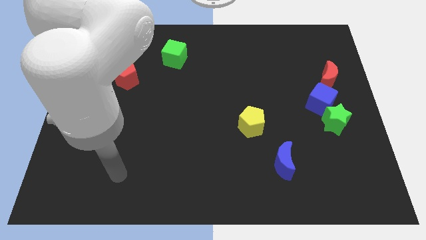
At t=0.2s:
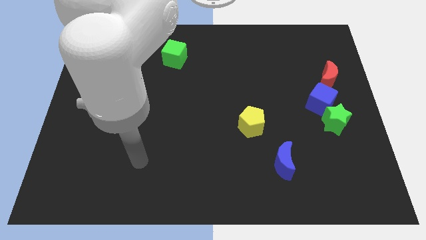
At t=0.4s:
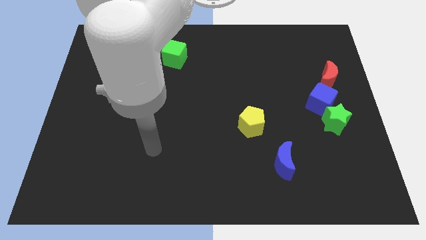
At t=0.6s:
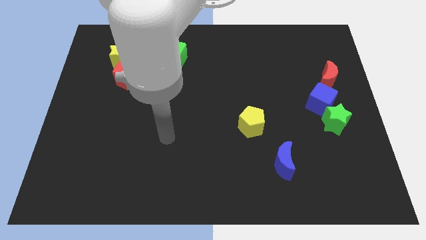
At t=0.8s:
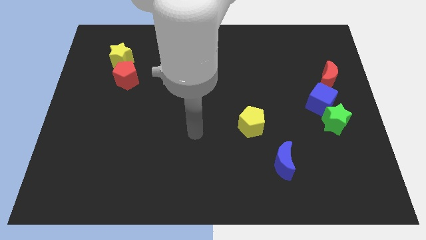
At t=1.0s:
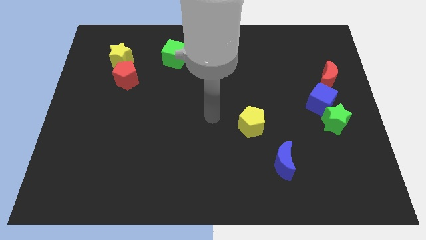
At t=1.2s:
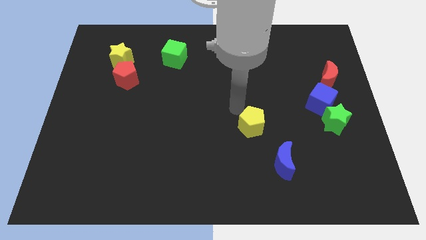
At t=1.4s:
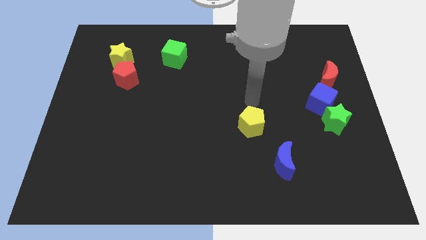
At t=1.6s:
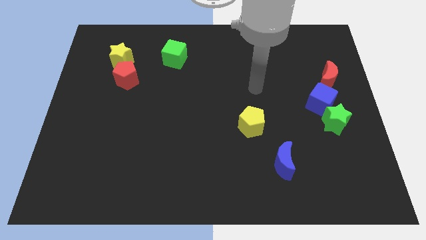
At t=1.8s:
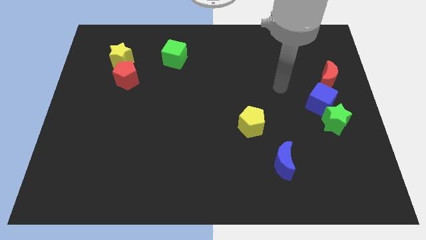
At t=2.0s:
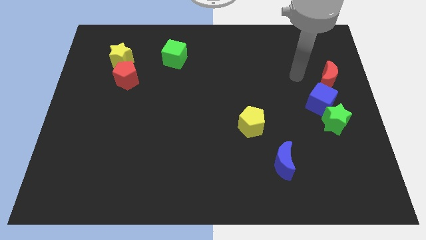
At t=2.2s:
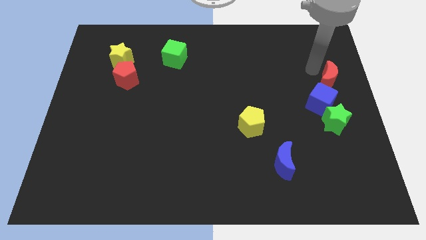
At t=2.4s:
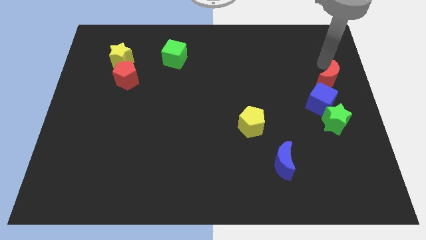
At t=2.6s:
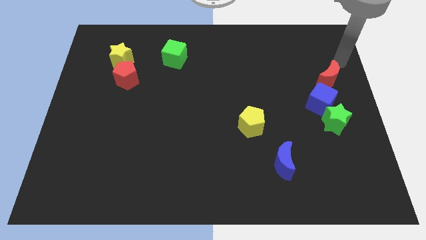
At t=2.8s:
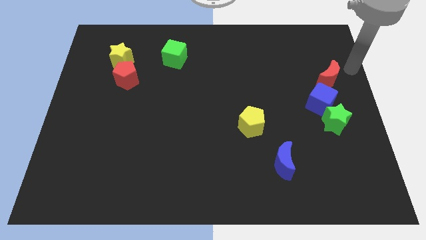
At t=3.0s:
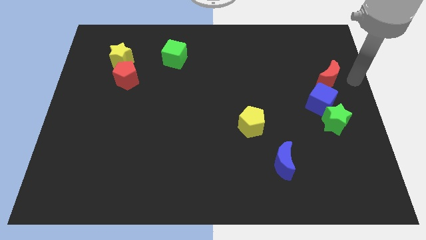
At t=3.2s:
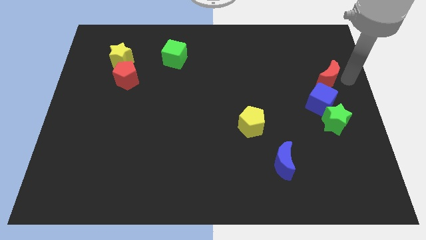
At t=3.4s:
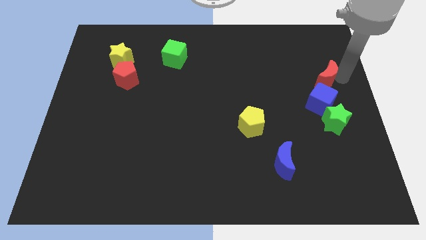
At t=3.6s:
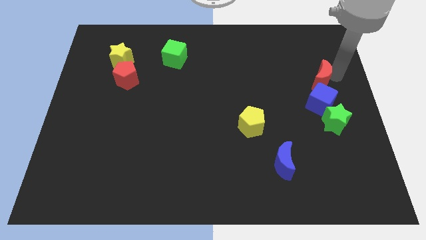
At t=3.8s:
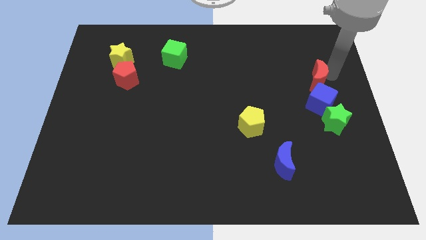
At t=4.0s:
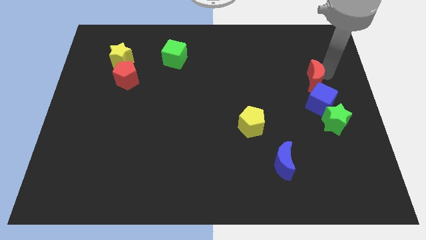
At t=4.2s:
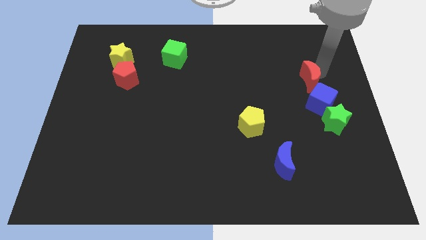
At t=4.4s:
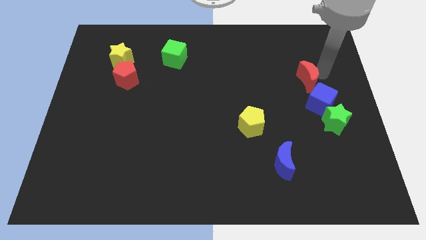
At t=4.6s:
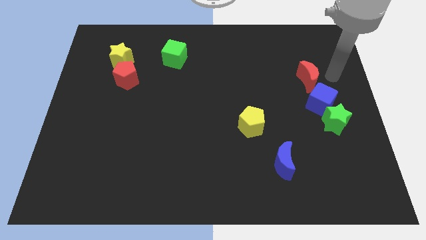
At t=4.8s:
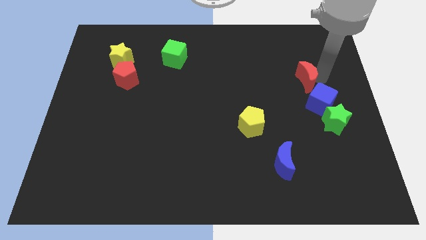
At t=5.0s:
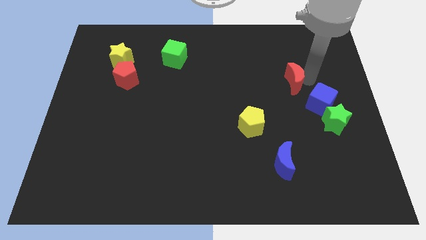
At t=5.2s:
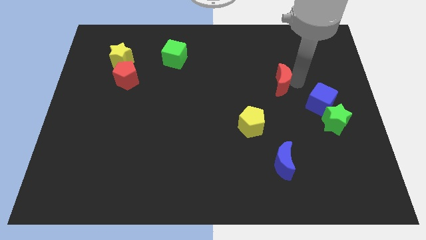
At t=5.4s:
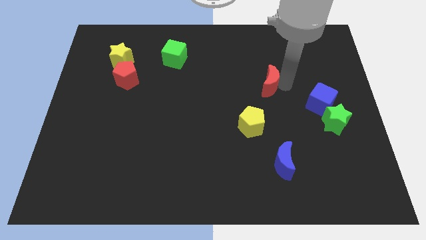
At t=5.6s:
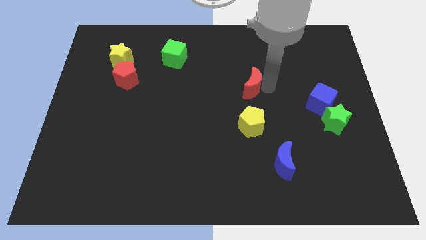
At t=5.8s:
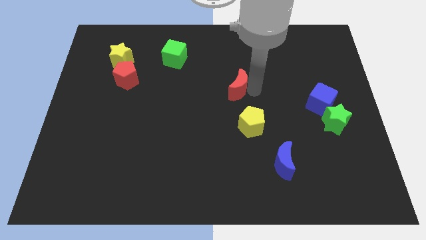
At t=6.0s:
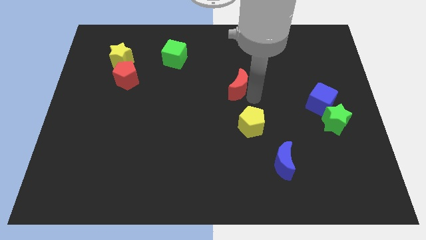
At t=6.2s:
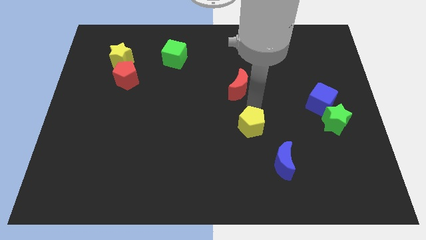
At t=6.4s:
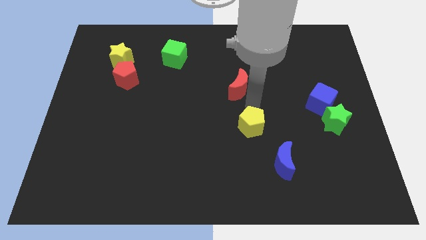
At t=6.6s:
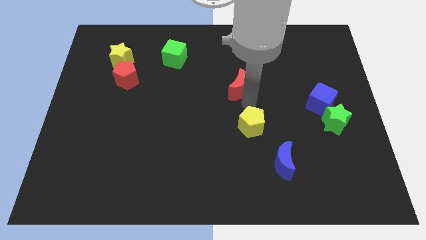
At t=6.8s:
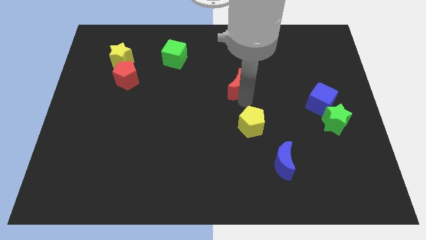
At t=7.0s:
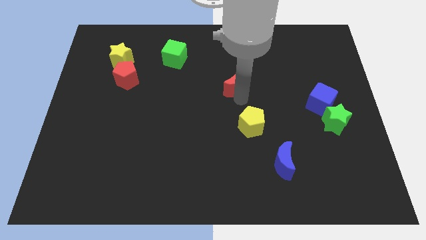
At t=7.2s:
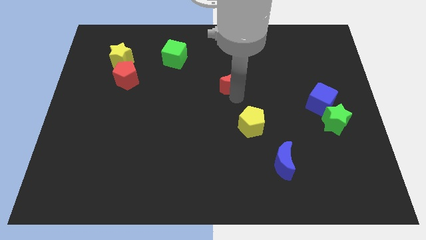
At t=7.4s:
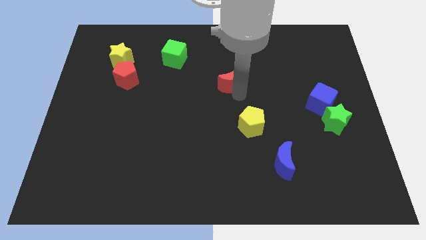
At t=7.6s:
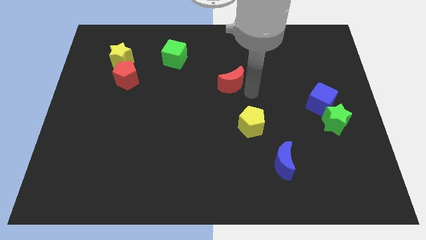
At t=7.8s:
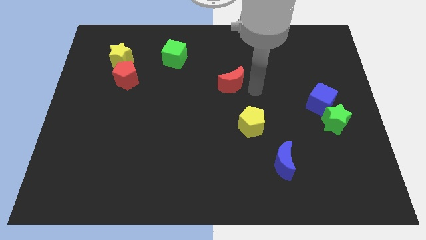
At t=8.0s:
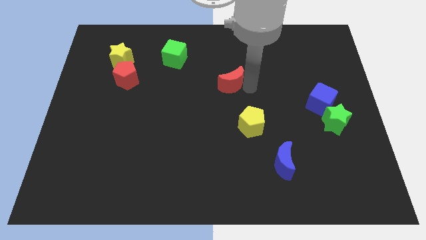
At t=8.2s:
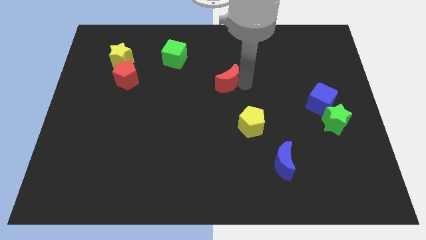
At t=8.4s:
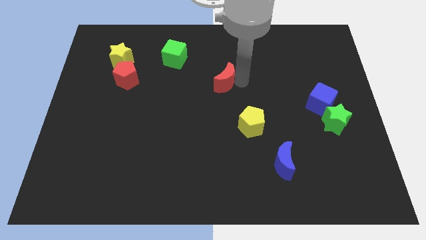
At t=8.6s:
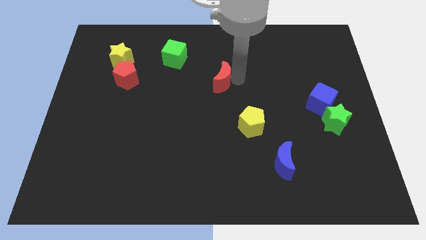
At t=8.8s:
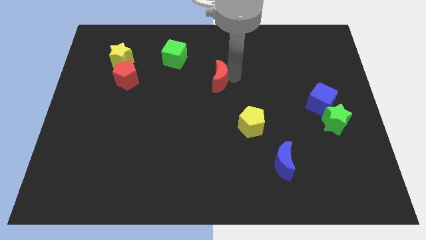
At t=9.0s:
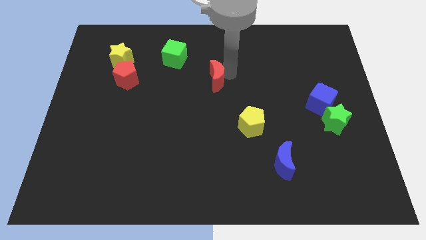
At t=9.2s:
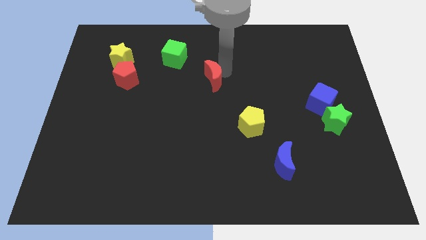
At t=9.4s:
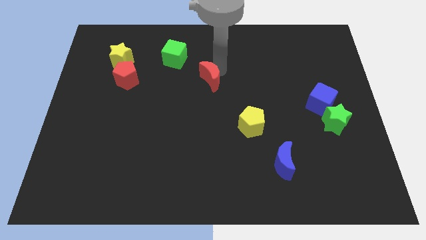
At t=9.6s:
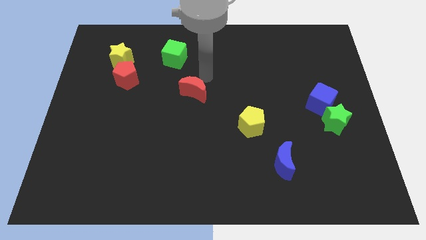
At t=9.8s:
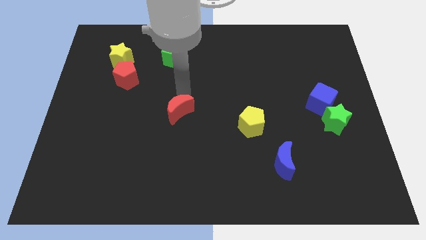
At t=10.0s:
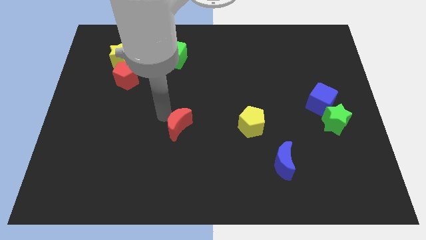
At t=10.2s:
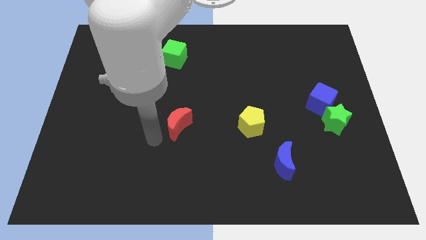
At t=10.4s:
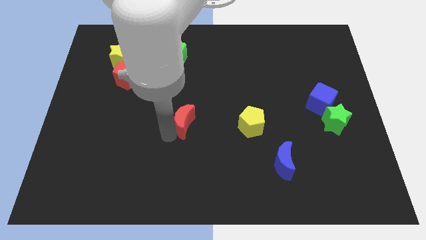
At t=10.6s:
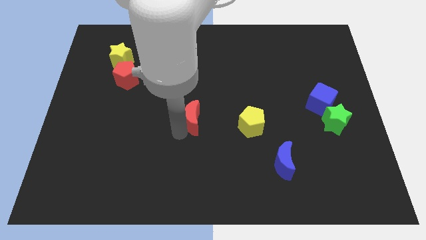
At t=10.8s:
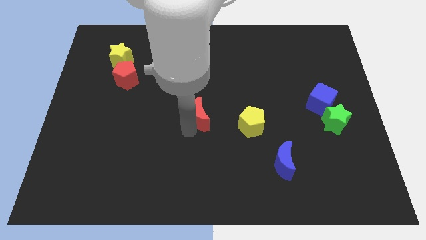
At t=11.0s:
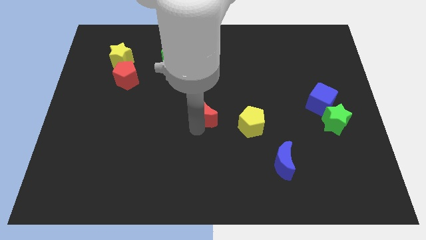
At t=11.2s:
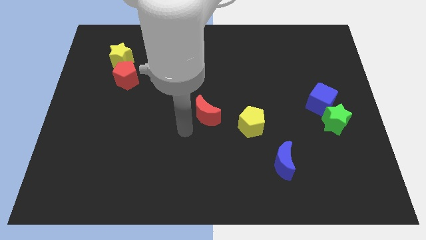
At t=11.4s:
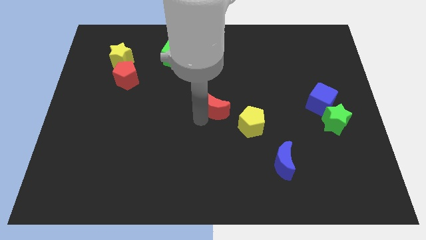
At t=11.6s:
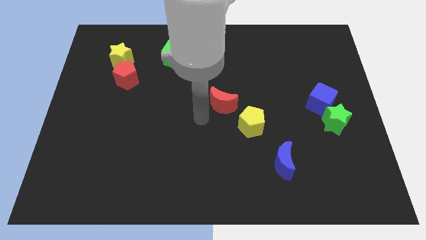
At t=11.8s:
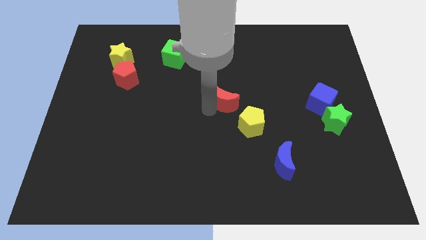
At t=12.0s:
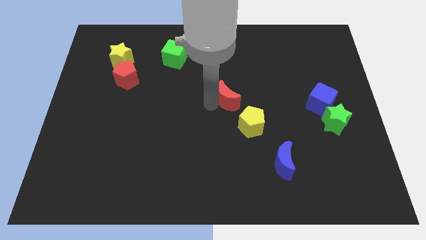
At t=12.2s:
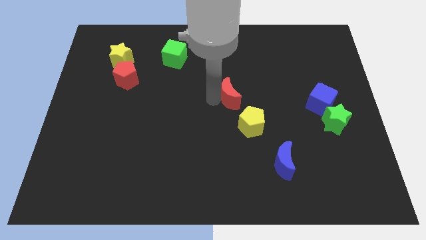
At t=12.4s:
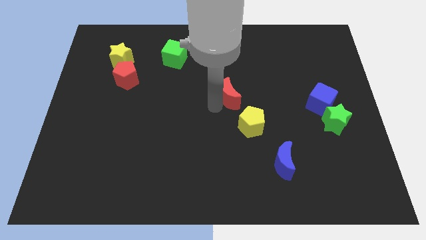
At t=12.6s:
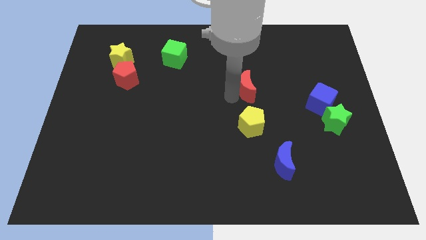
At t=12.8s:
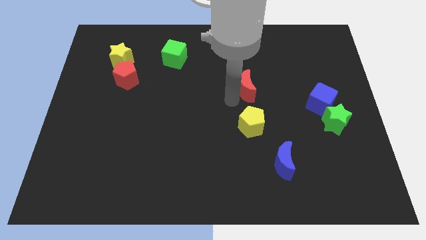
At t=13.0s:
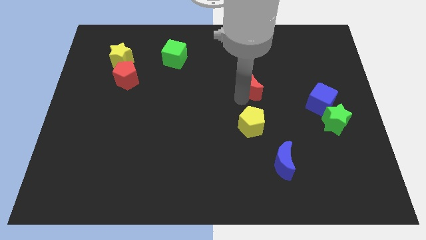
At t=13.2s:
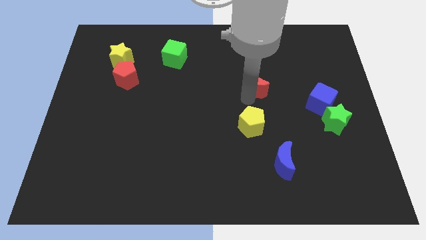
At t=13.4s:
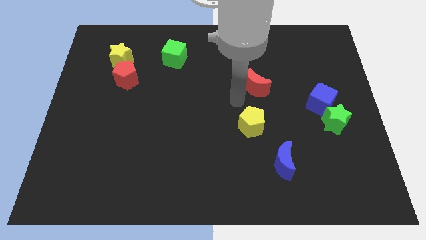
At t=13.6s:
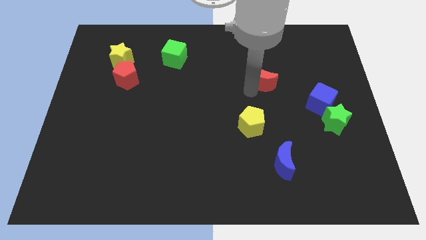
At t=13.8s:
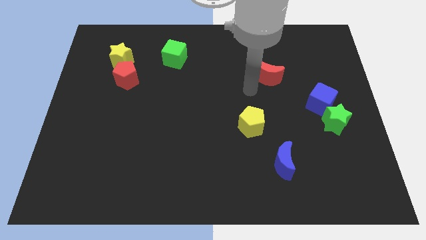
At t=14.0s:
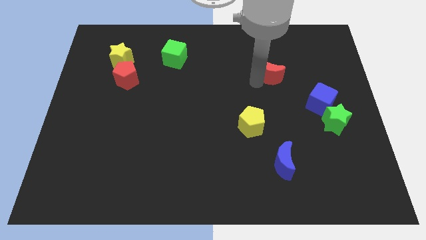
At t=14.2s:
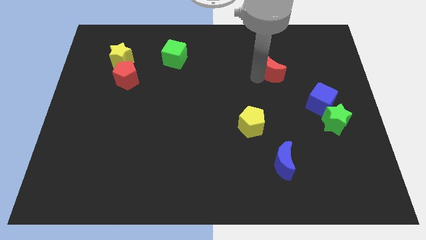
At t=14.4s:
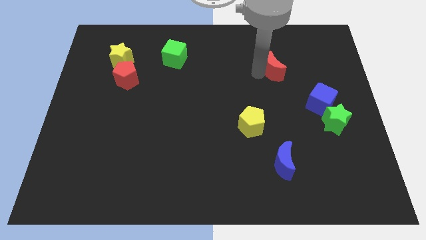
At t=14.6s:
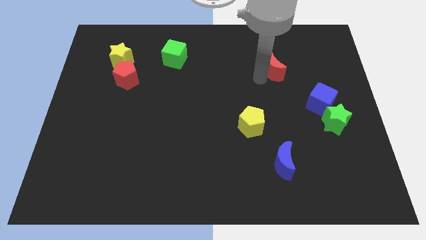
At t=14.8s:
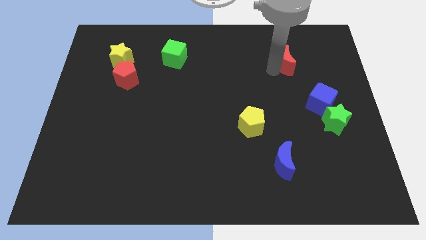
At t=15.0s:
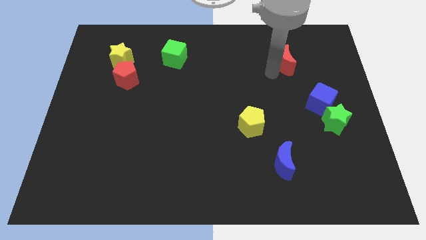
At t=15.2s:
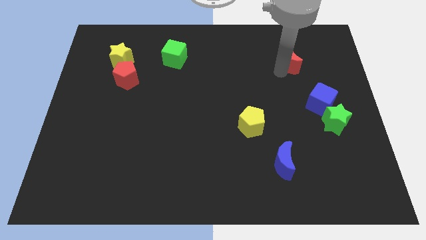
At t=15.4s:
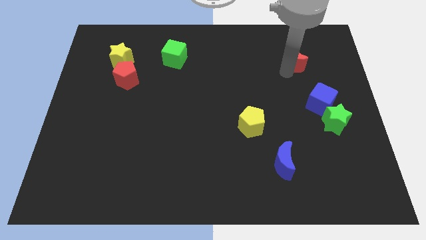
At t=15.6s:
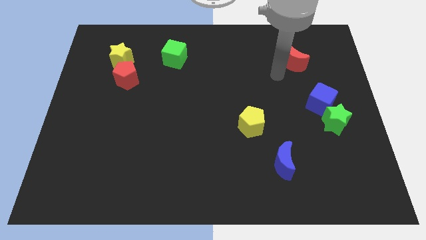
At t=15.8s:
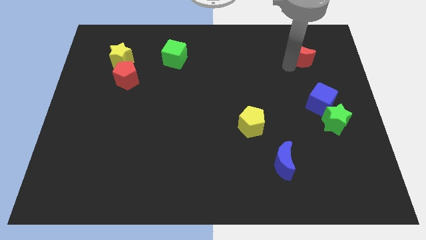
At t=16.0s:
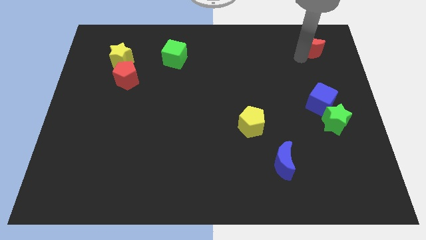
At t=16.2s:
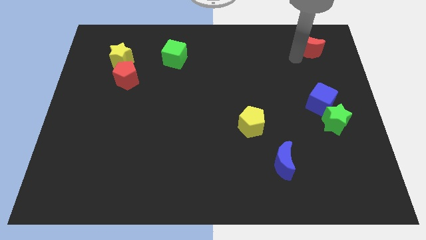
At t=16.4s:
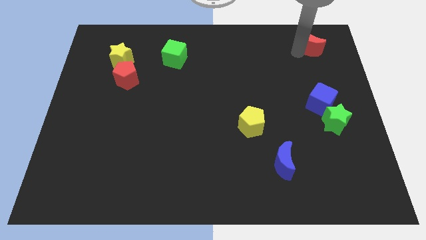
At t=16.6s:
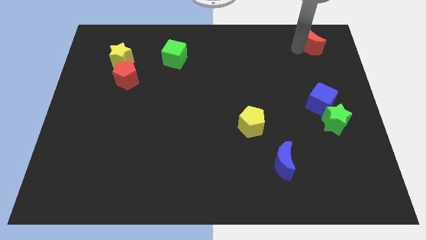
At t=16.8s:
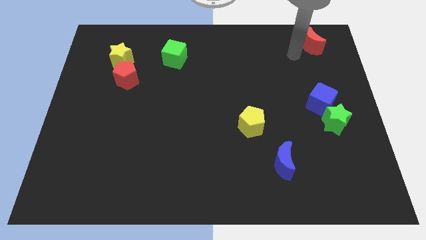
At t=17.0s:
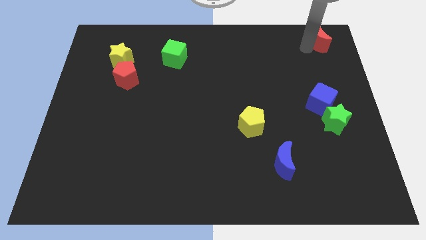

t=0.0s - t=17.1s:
put the red moon to the top right corner
